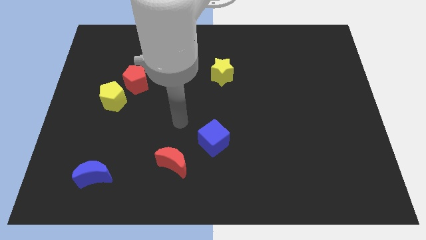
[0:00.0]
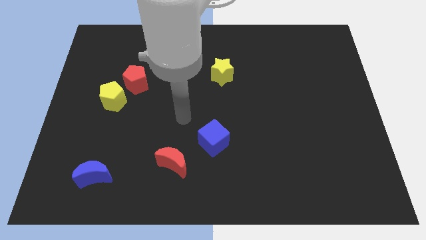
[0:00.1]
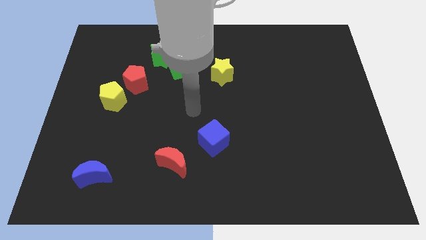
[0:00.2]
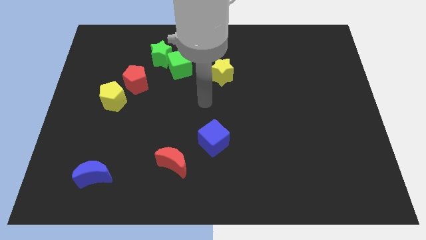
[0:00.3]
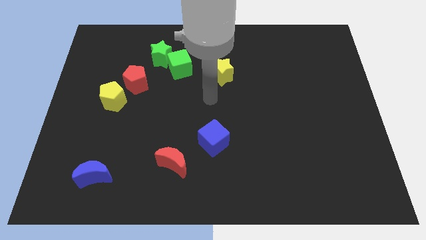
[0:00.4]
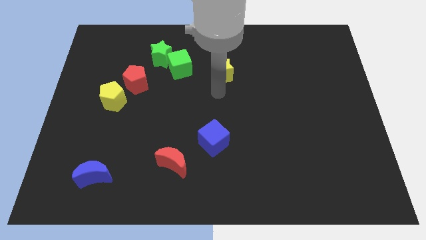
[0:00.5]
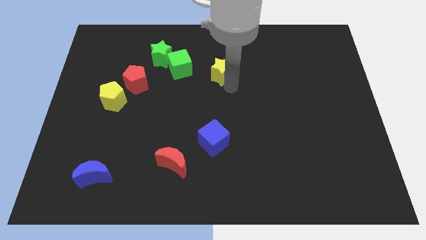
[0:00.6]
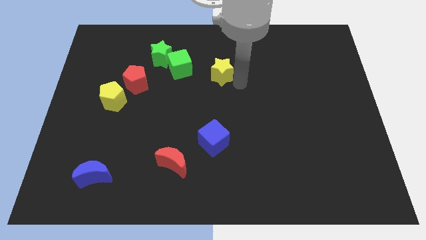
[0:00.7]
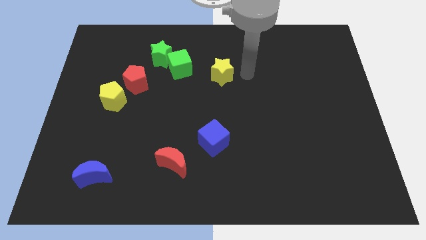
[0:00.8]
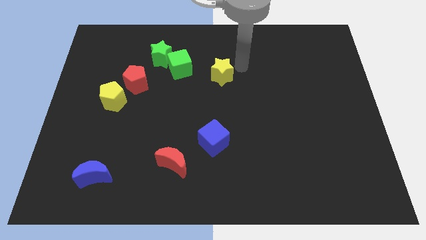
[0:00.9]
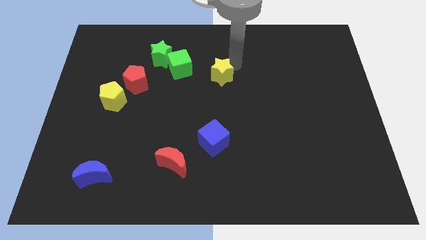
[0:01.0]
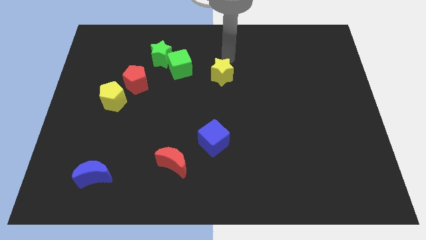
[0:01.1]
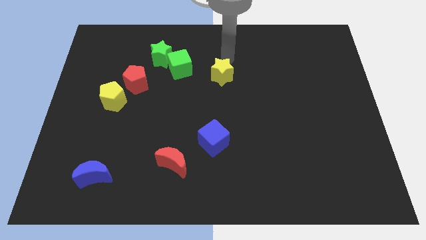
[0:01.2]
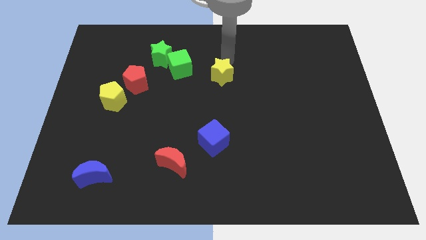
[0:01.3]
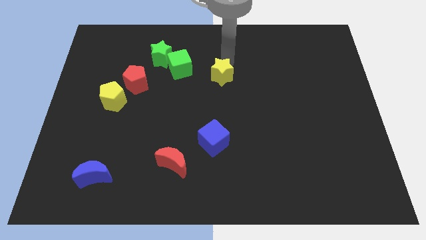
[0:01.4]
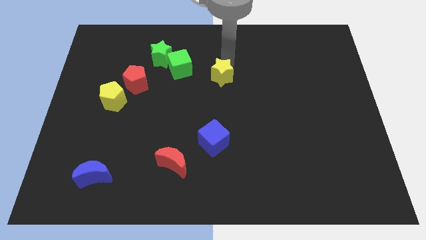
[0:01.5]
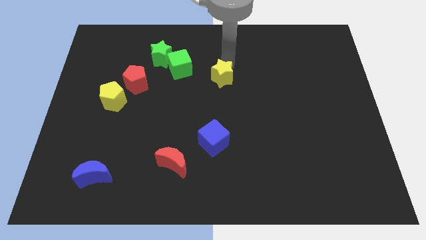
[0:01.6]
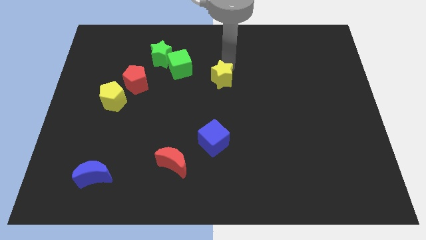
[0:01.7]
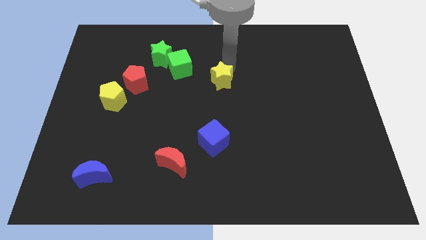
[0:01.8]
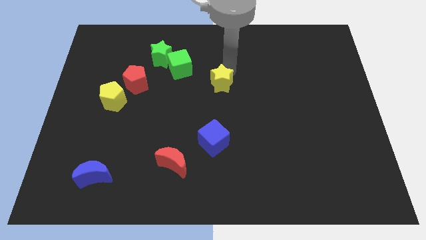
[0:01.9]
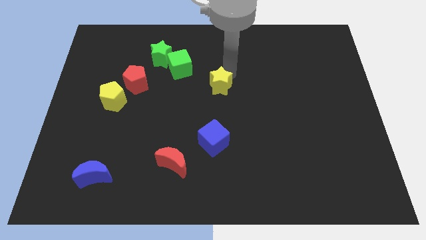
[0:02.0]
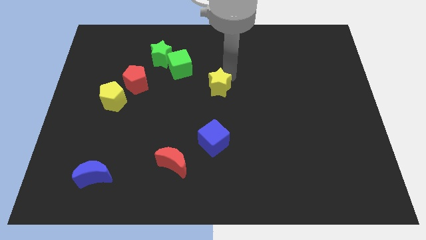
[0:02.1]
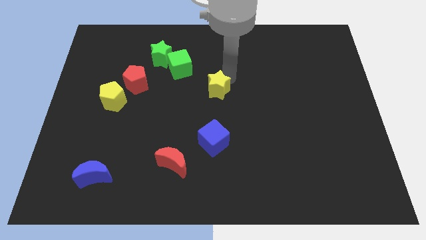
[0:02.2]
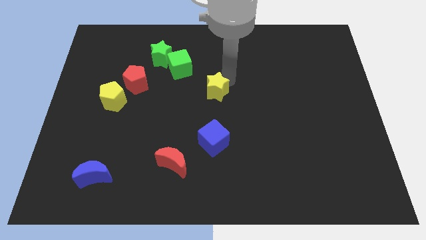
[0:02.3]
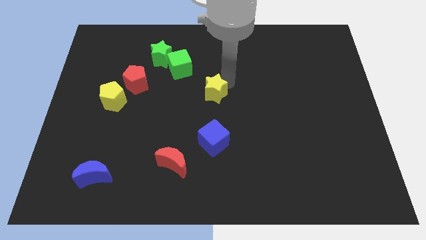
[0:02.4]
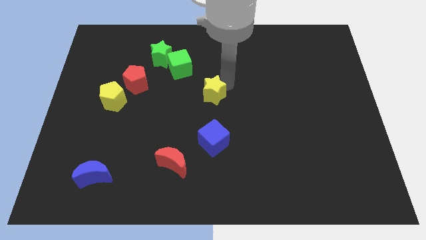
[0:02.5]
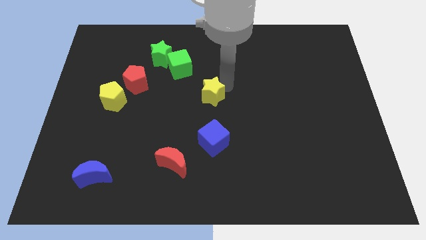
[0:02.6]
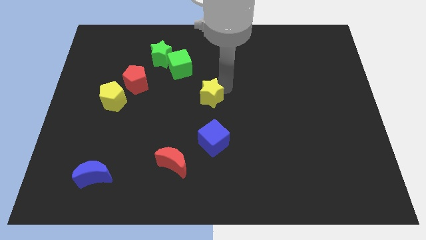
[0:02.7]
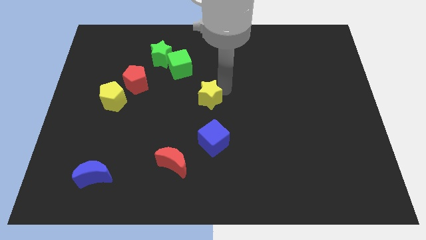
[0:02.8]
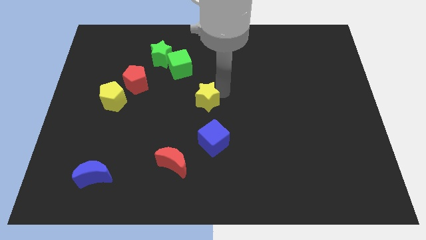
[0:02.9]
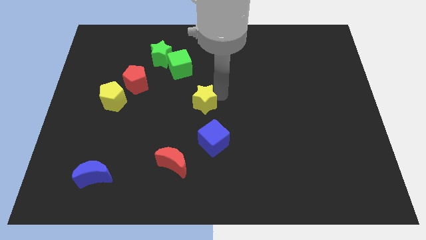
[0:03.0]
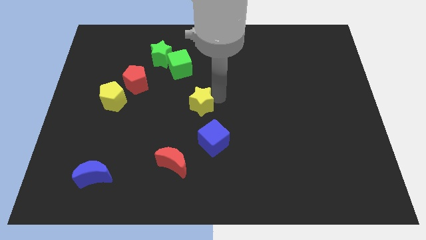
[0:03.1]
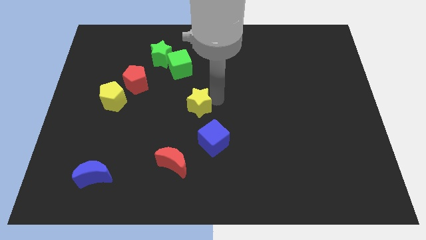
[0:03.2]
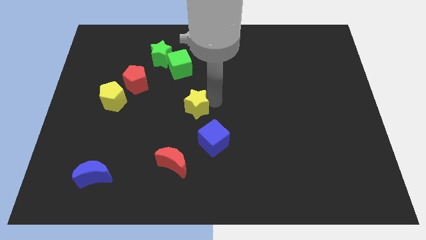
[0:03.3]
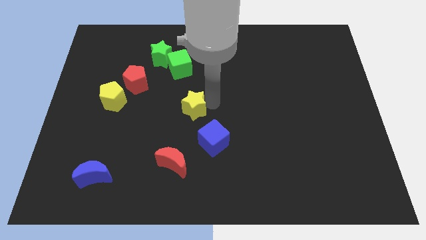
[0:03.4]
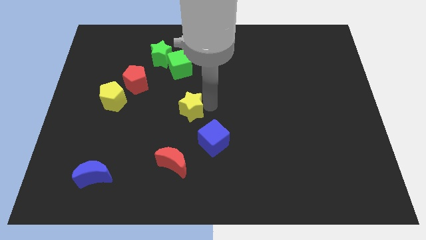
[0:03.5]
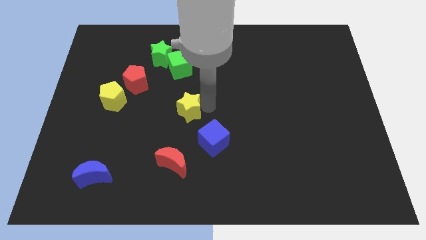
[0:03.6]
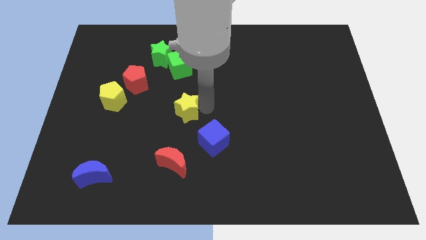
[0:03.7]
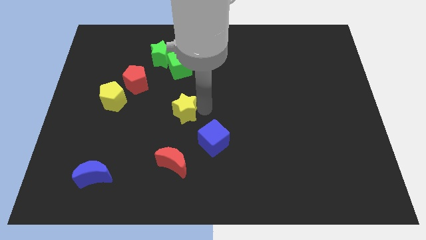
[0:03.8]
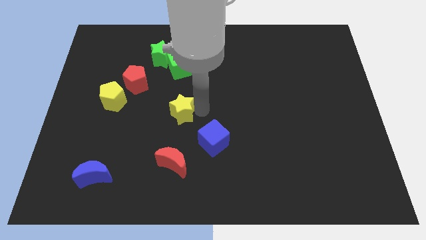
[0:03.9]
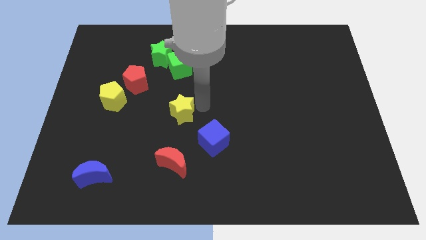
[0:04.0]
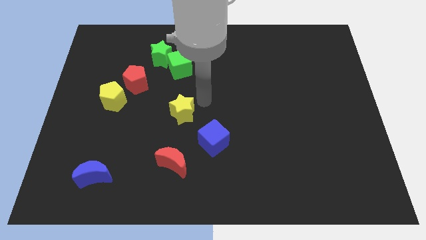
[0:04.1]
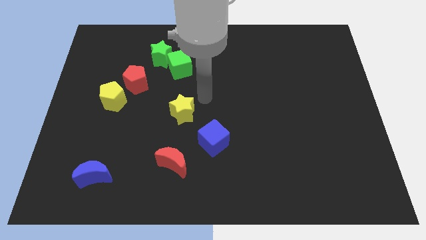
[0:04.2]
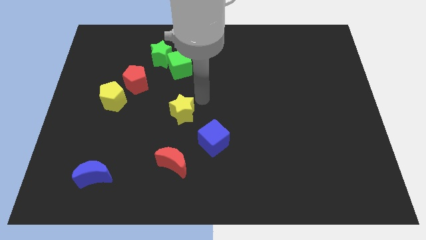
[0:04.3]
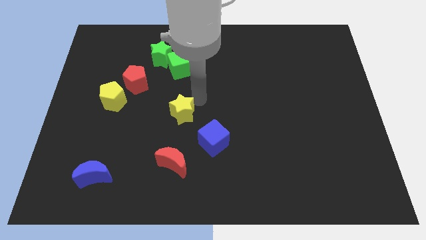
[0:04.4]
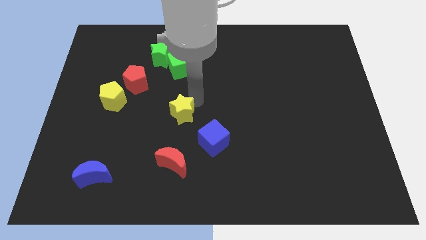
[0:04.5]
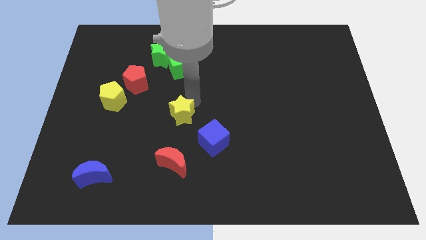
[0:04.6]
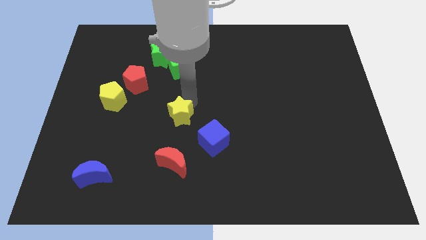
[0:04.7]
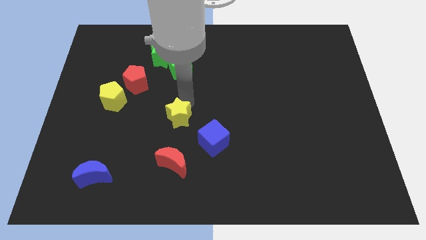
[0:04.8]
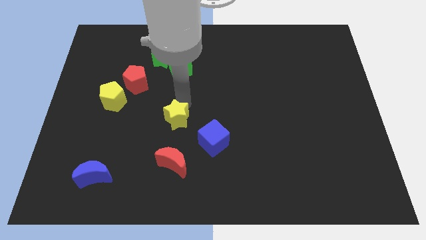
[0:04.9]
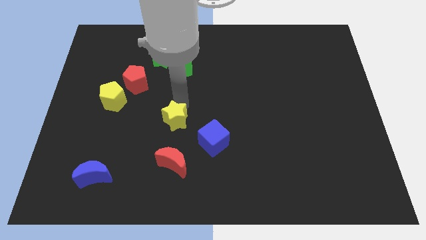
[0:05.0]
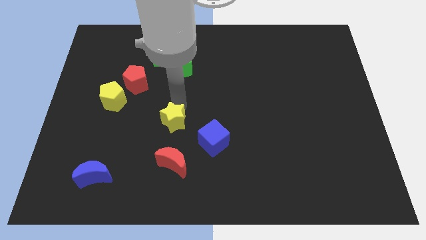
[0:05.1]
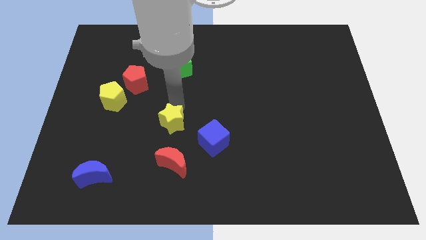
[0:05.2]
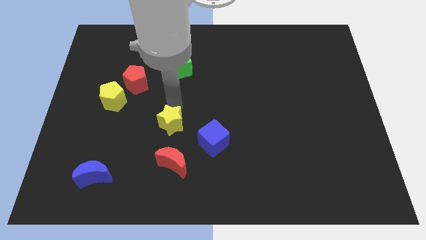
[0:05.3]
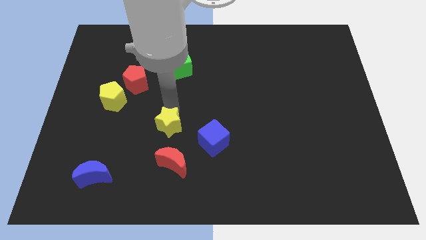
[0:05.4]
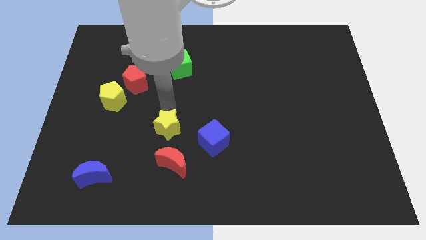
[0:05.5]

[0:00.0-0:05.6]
slide the yellow star downwards and left diagonally

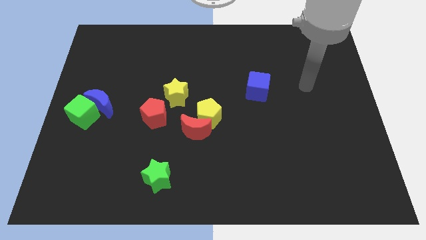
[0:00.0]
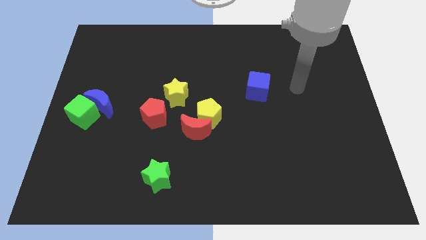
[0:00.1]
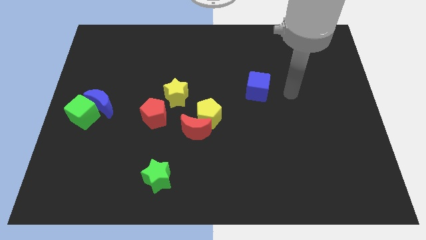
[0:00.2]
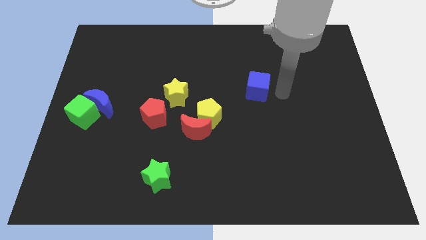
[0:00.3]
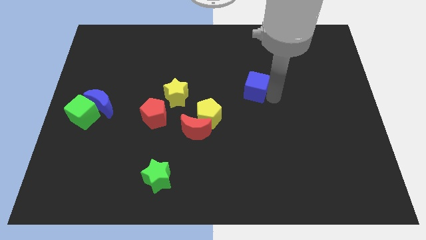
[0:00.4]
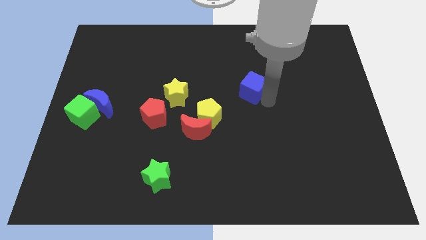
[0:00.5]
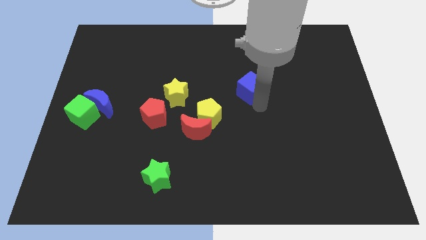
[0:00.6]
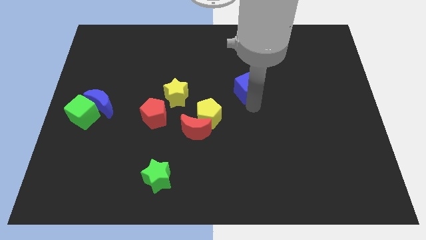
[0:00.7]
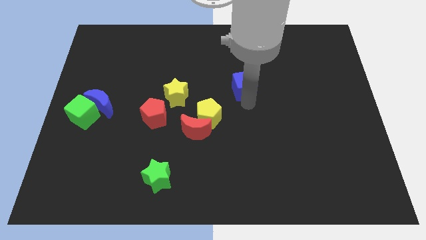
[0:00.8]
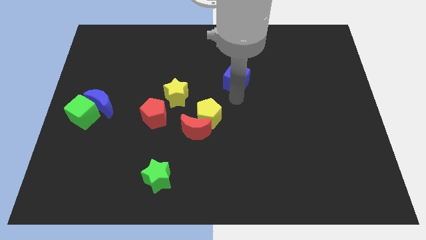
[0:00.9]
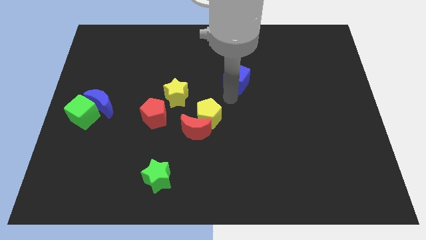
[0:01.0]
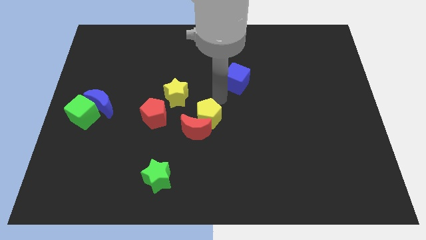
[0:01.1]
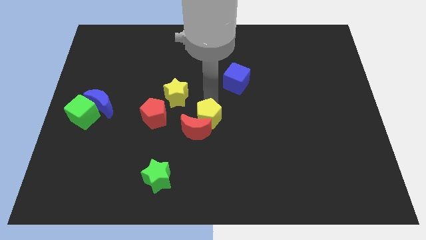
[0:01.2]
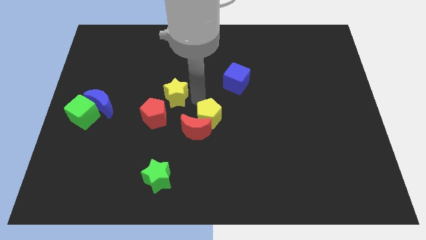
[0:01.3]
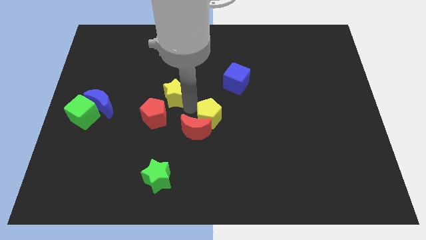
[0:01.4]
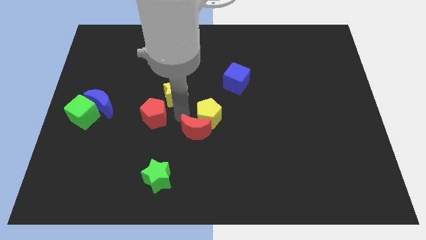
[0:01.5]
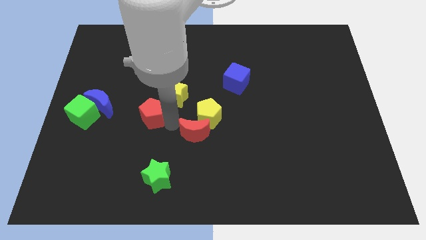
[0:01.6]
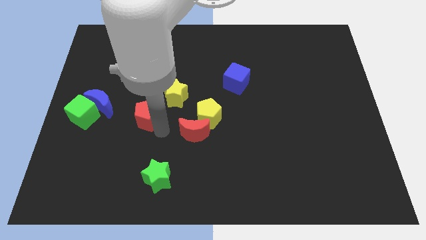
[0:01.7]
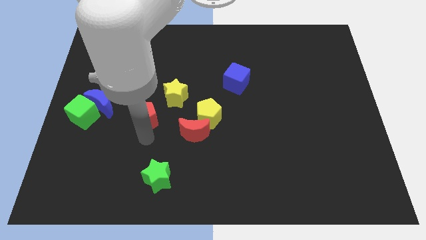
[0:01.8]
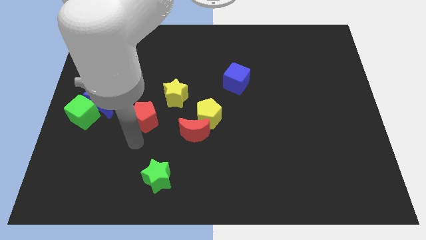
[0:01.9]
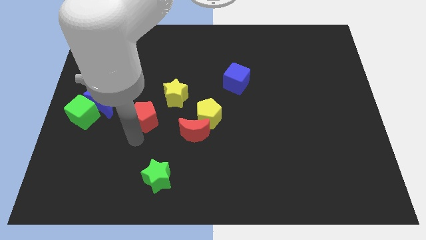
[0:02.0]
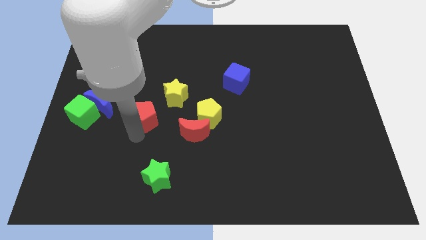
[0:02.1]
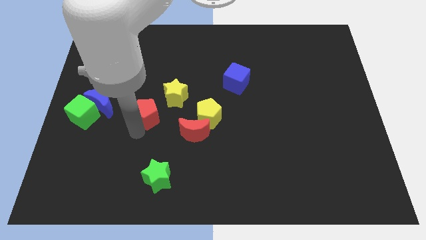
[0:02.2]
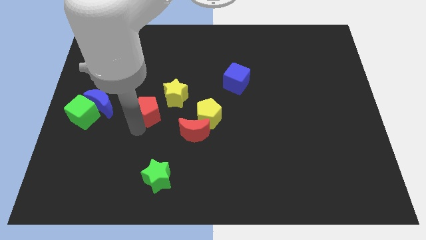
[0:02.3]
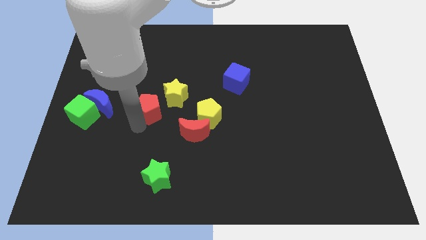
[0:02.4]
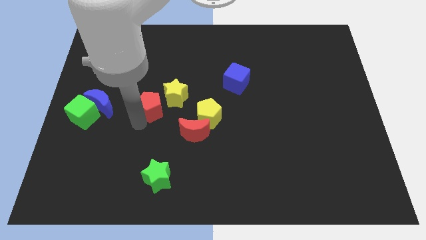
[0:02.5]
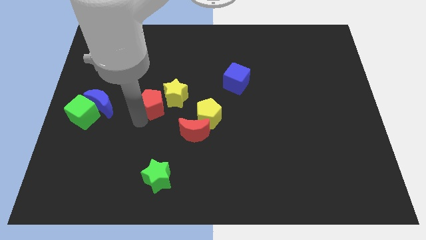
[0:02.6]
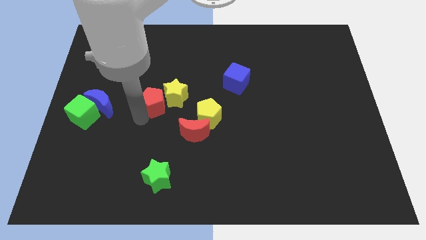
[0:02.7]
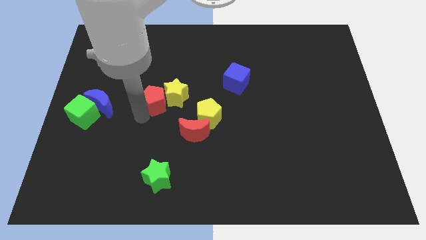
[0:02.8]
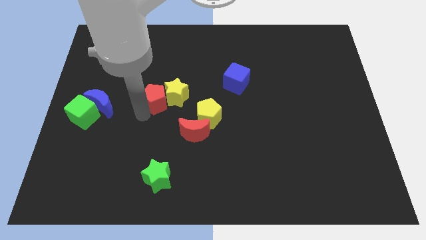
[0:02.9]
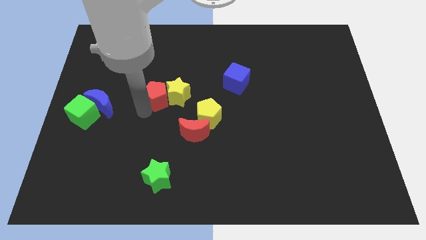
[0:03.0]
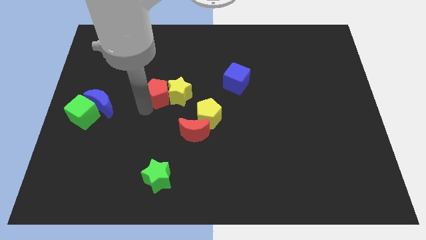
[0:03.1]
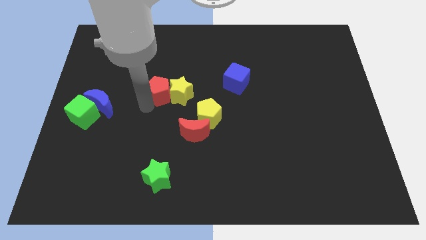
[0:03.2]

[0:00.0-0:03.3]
push the red pentagon somewhat up
